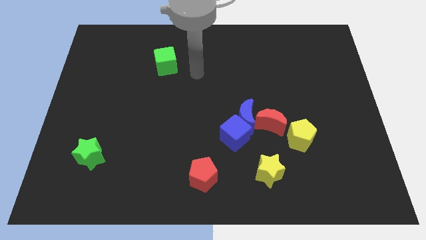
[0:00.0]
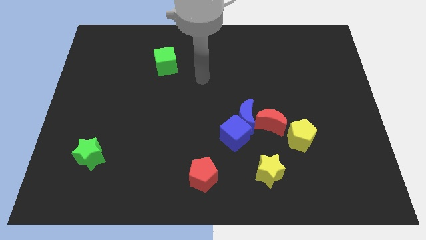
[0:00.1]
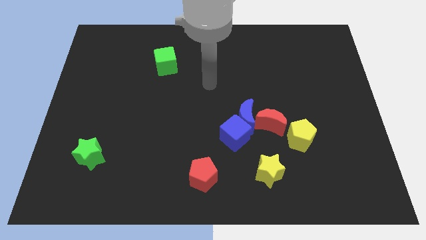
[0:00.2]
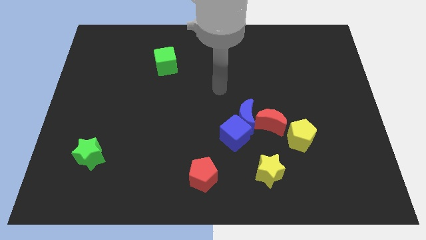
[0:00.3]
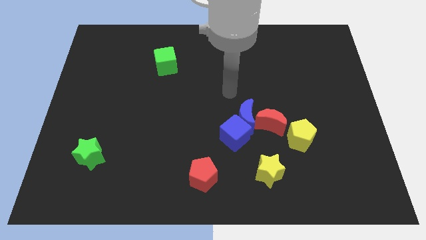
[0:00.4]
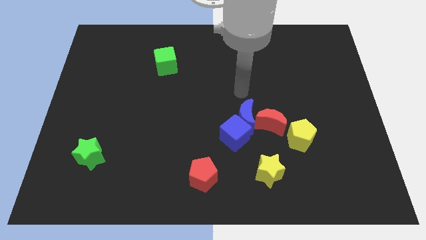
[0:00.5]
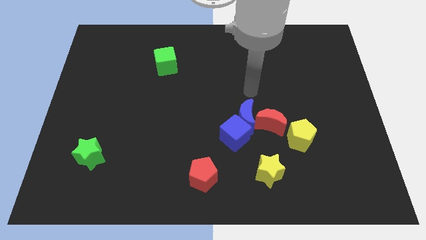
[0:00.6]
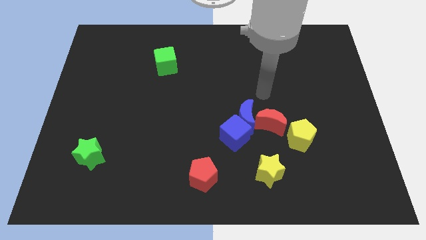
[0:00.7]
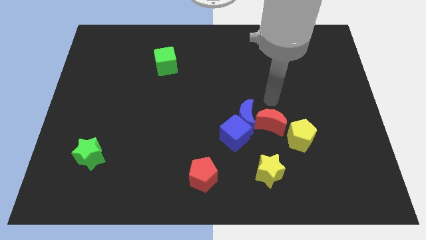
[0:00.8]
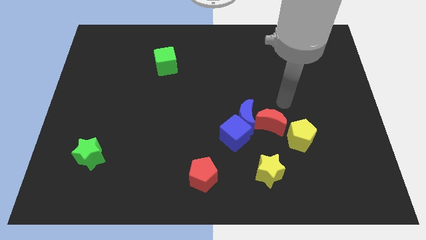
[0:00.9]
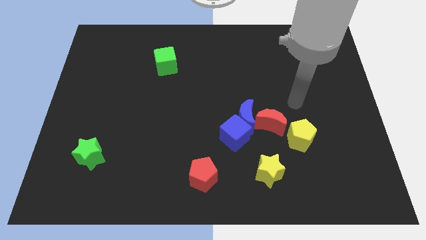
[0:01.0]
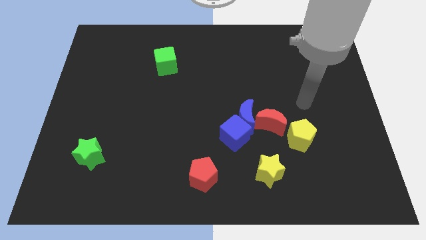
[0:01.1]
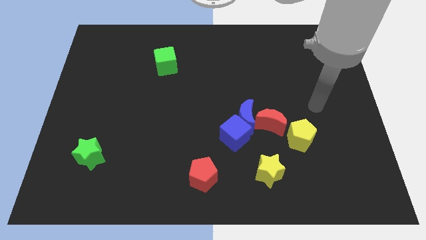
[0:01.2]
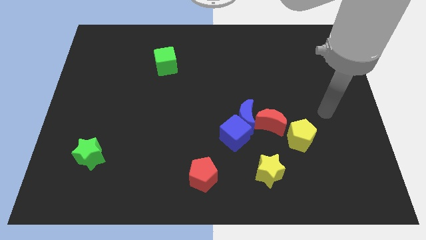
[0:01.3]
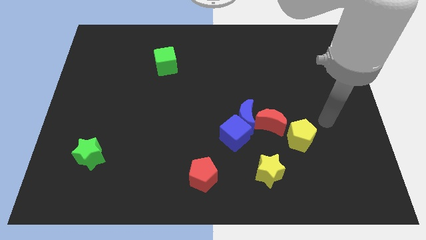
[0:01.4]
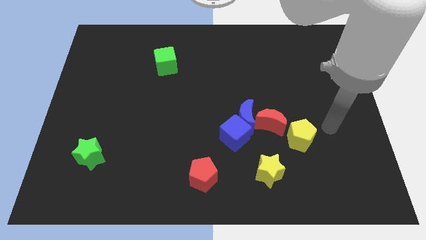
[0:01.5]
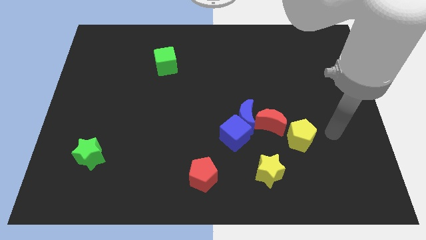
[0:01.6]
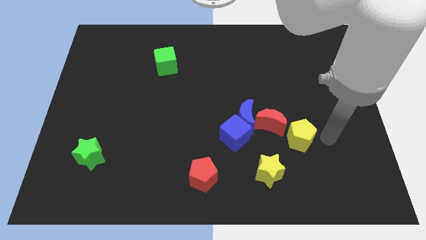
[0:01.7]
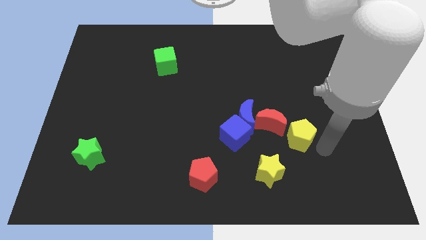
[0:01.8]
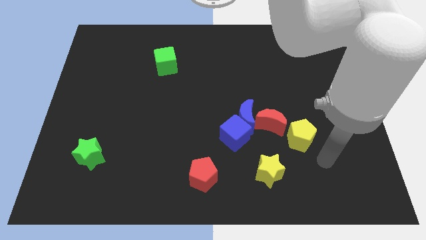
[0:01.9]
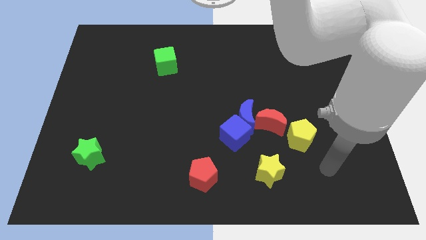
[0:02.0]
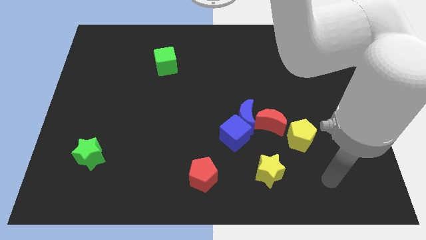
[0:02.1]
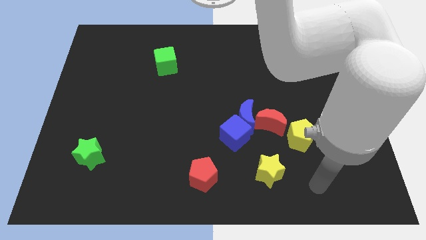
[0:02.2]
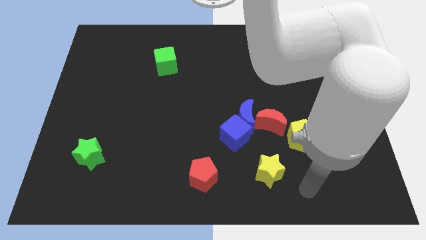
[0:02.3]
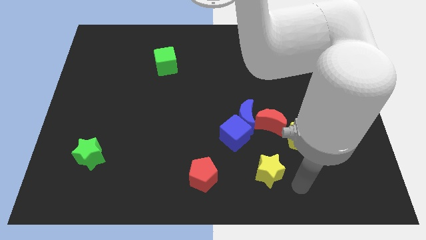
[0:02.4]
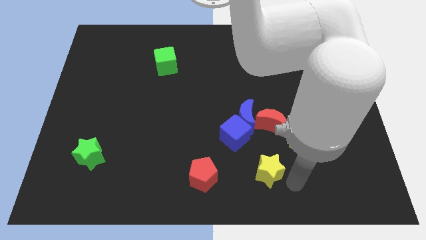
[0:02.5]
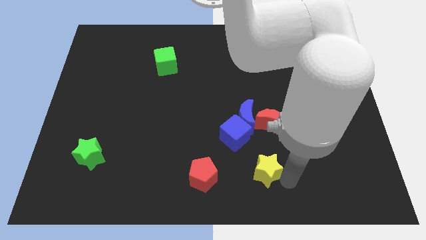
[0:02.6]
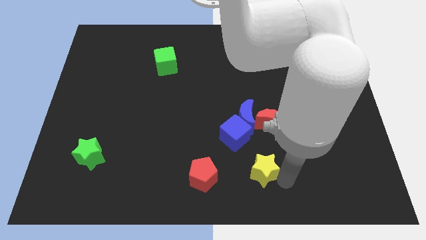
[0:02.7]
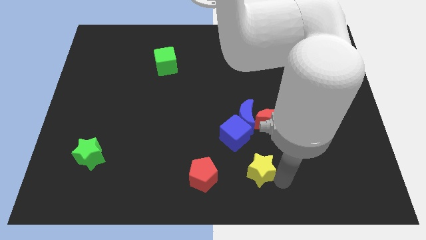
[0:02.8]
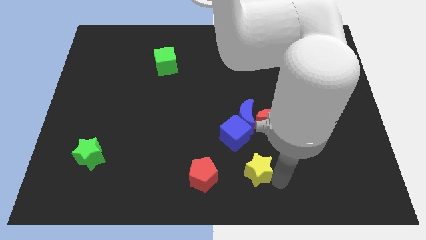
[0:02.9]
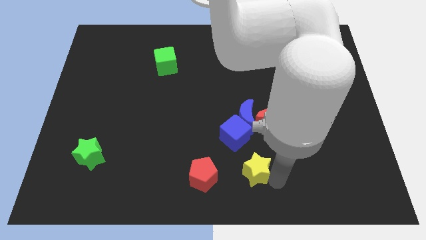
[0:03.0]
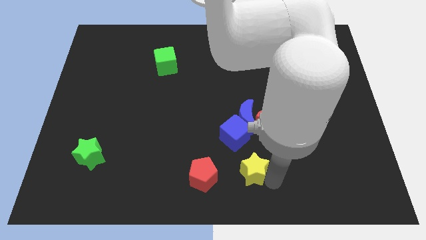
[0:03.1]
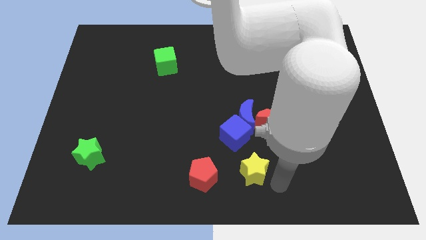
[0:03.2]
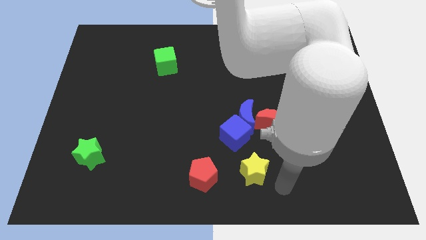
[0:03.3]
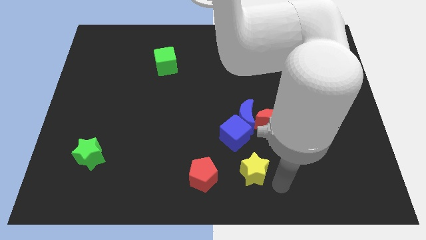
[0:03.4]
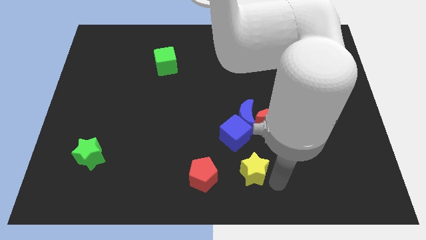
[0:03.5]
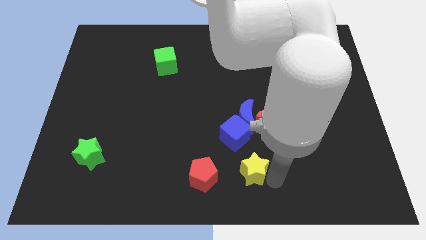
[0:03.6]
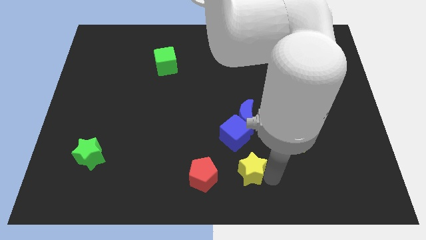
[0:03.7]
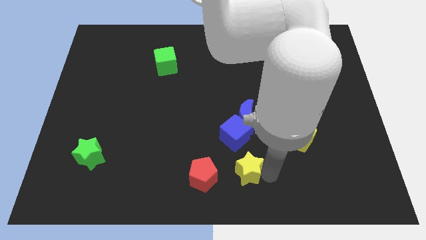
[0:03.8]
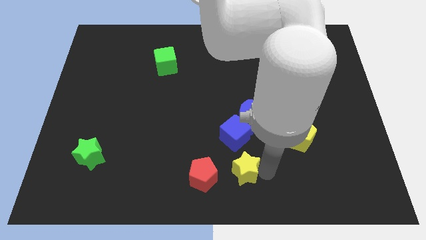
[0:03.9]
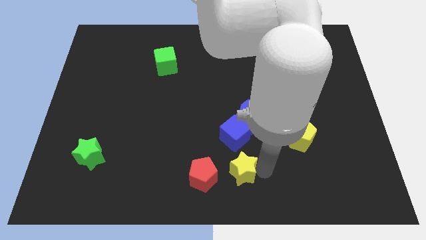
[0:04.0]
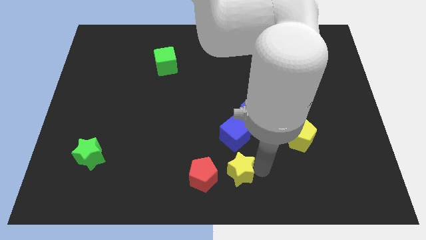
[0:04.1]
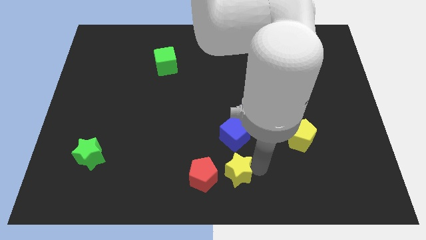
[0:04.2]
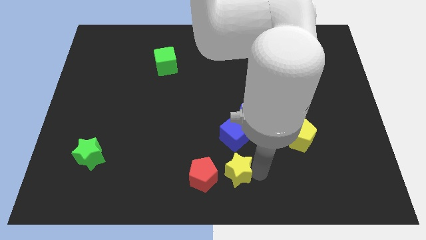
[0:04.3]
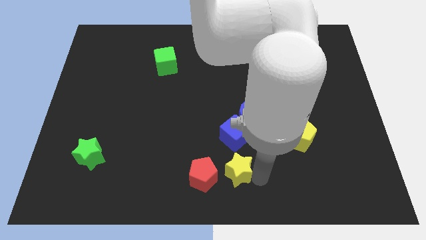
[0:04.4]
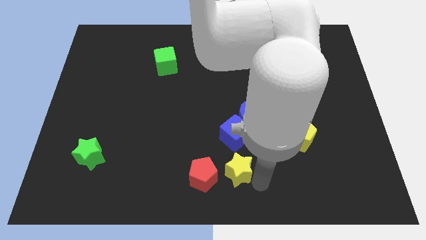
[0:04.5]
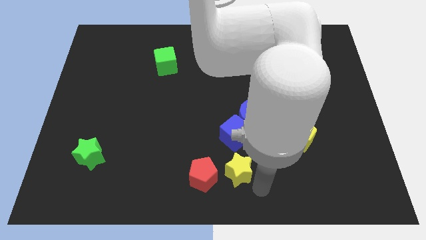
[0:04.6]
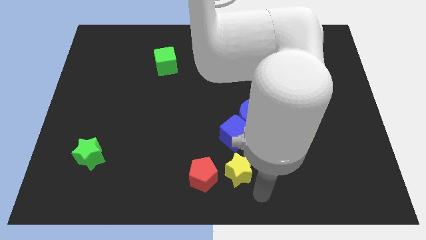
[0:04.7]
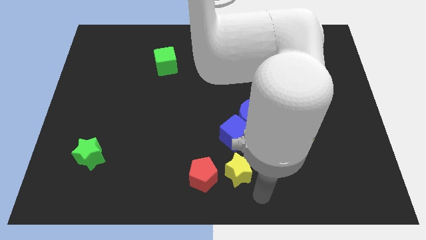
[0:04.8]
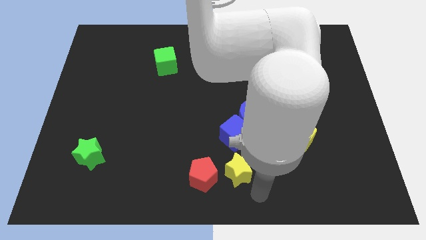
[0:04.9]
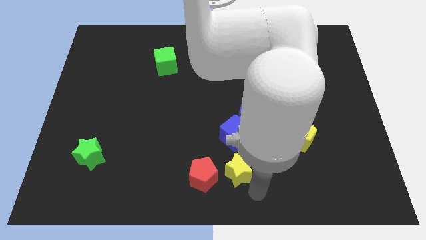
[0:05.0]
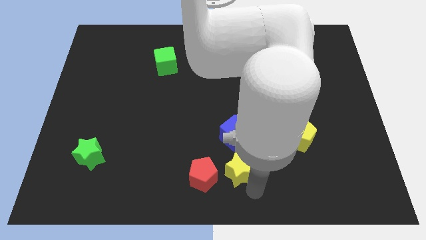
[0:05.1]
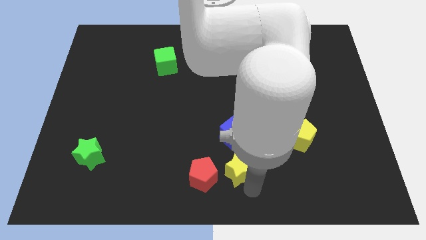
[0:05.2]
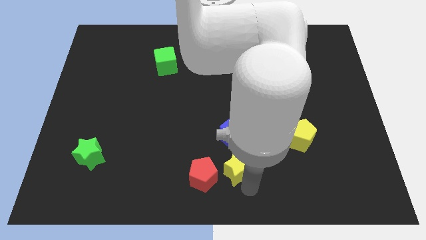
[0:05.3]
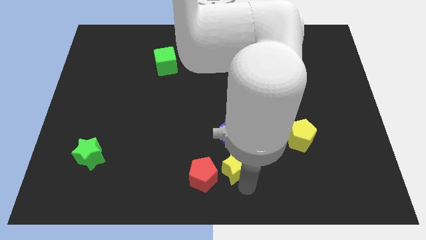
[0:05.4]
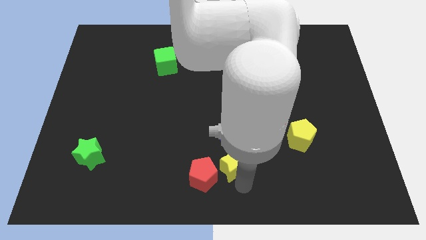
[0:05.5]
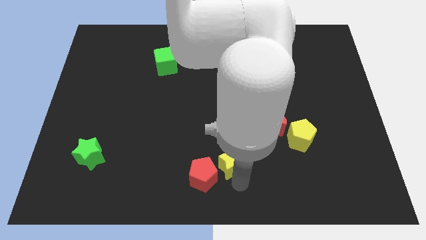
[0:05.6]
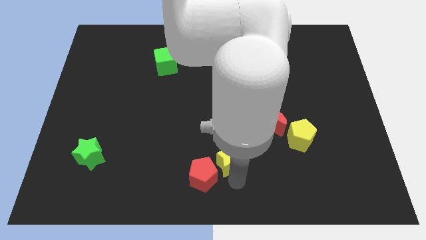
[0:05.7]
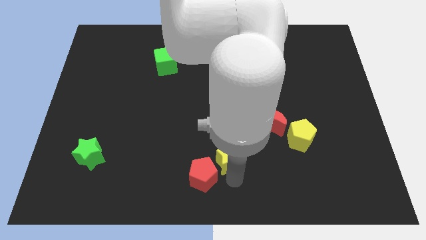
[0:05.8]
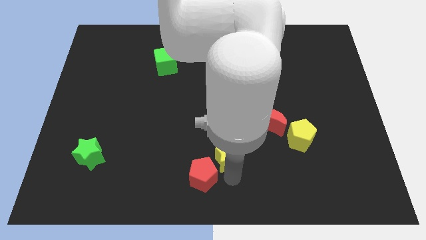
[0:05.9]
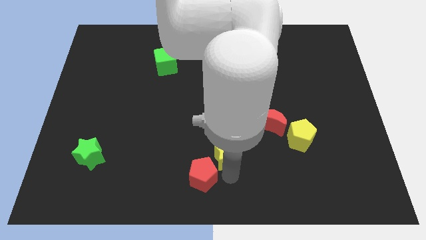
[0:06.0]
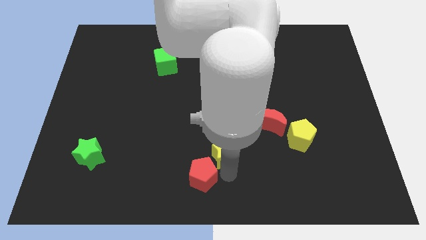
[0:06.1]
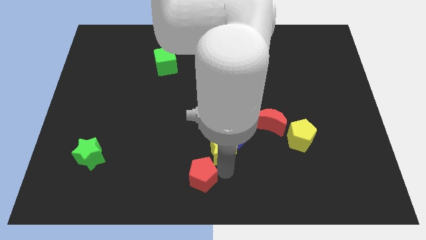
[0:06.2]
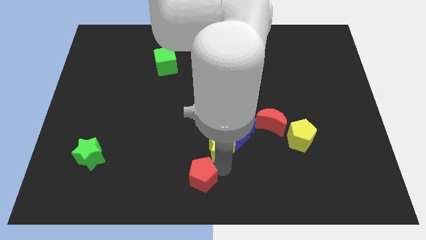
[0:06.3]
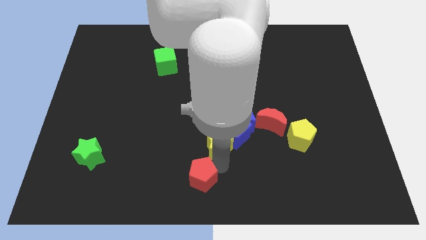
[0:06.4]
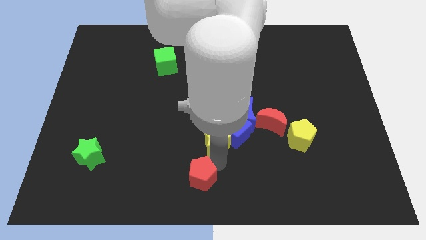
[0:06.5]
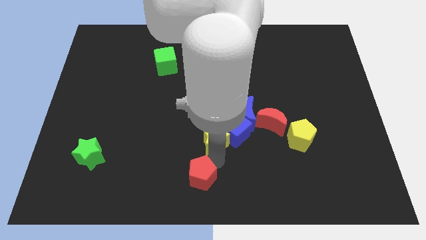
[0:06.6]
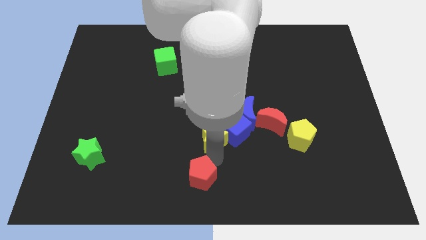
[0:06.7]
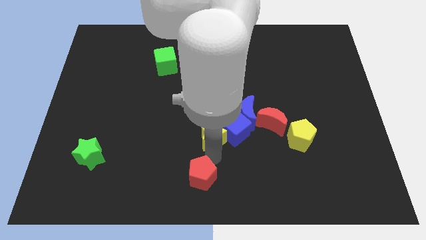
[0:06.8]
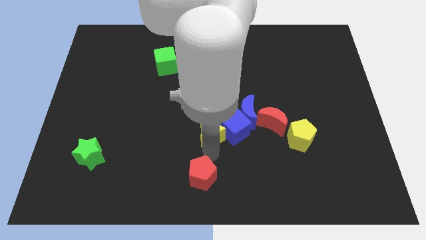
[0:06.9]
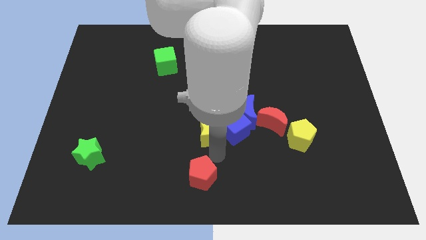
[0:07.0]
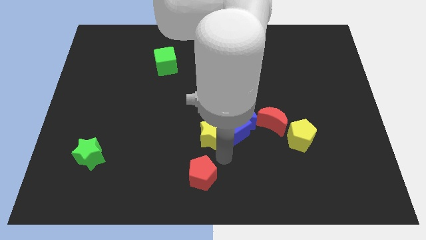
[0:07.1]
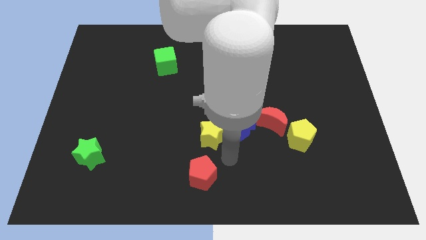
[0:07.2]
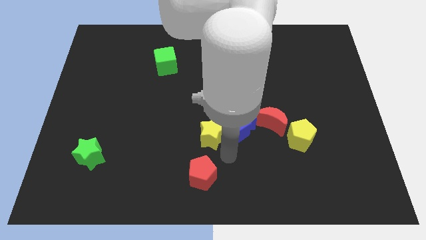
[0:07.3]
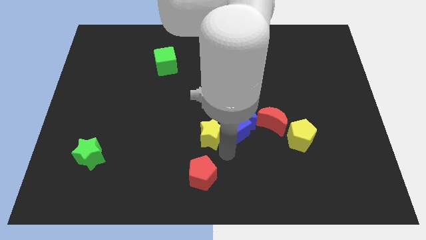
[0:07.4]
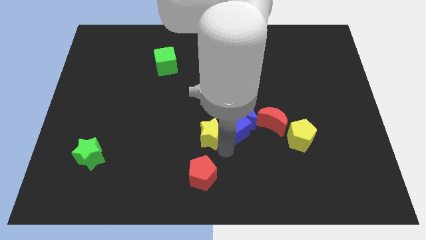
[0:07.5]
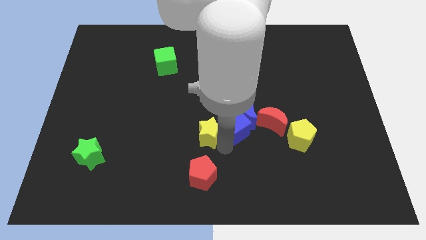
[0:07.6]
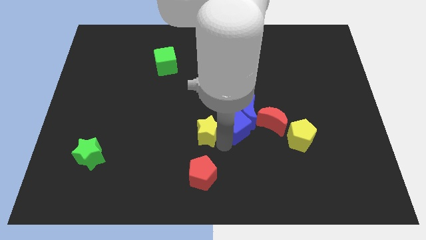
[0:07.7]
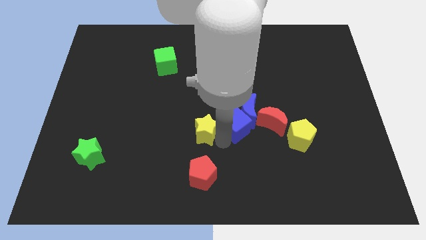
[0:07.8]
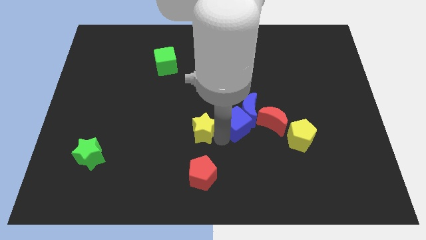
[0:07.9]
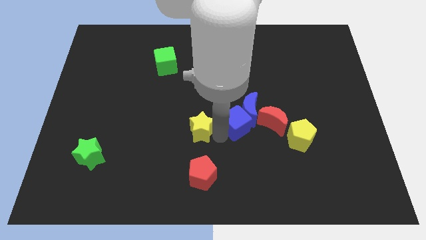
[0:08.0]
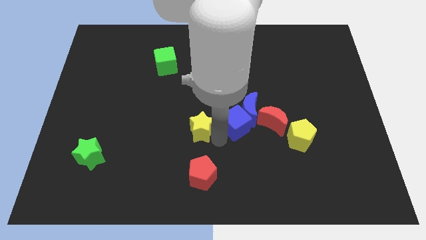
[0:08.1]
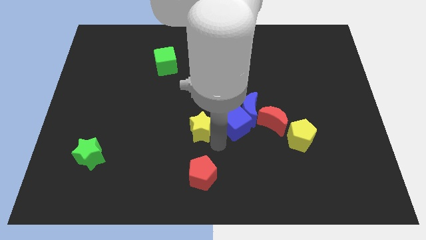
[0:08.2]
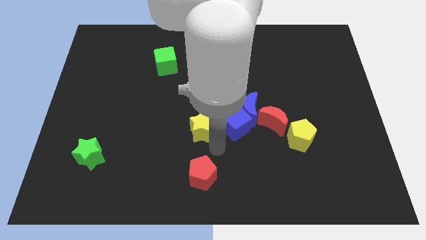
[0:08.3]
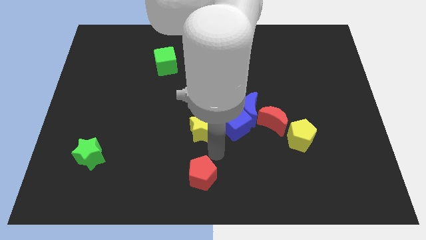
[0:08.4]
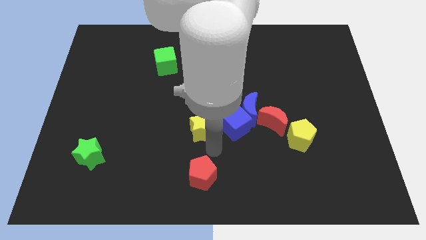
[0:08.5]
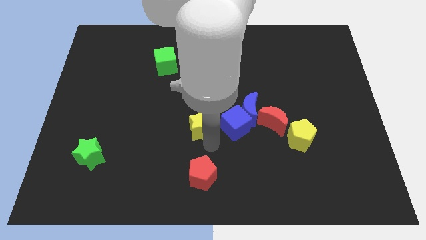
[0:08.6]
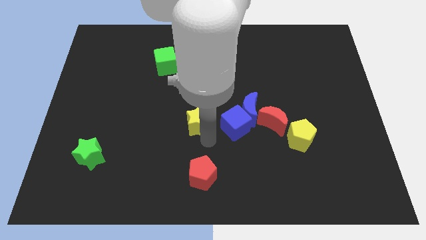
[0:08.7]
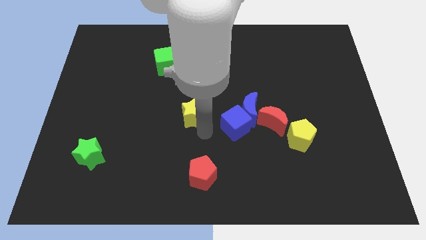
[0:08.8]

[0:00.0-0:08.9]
slide the yellow star upwards and then to the left
